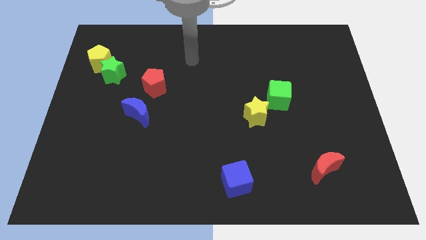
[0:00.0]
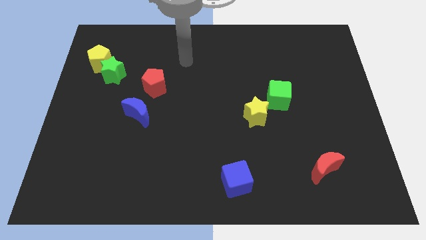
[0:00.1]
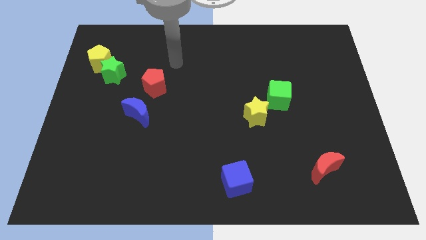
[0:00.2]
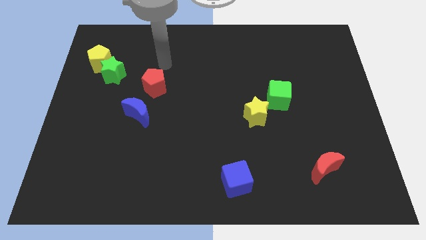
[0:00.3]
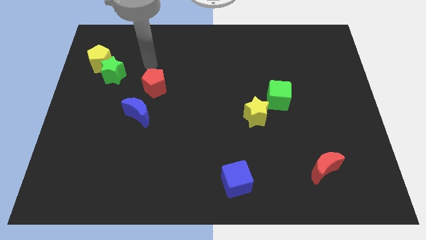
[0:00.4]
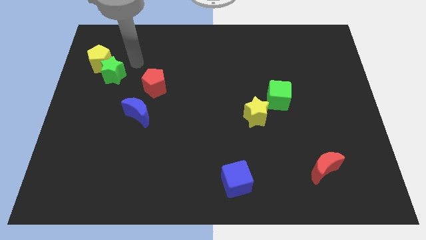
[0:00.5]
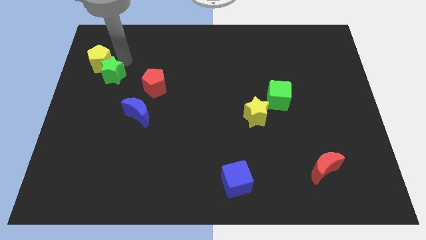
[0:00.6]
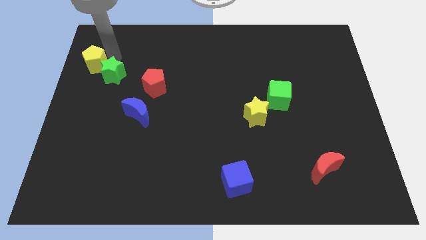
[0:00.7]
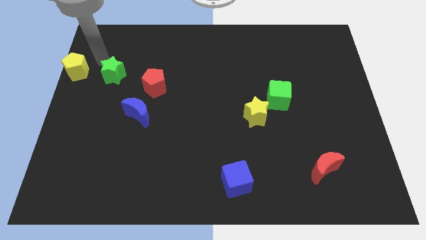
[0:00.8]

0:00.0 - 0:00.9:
pull the green star apart from the yellow pentagon

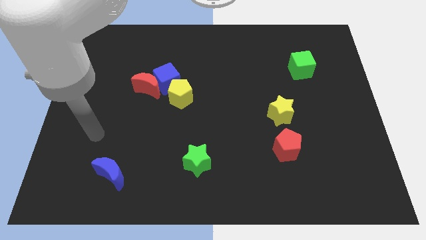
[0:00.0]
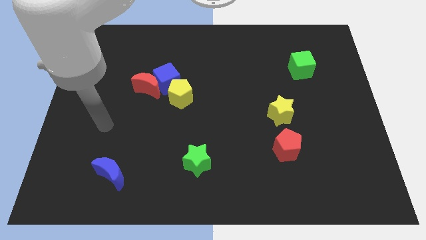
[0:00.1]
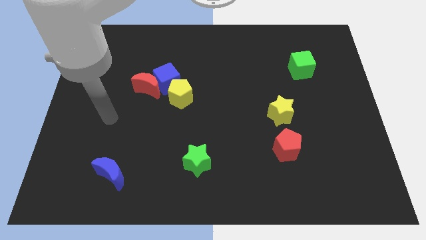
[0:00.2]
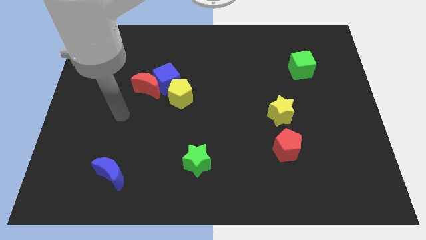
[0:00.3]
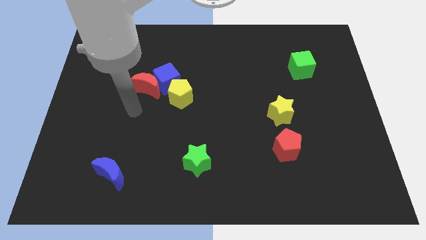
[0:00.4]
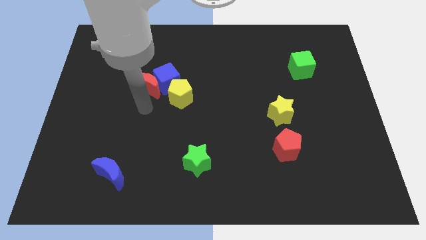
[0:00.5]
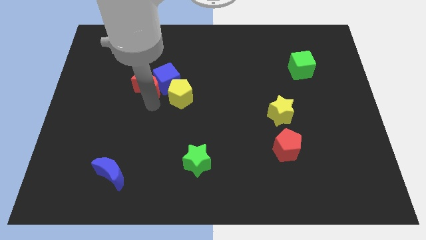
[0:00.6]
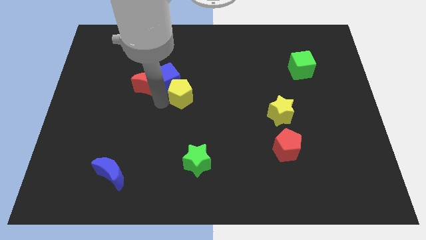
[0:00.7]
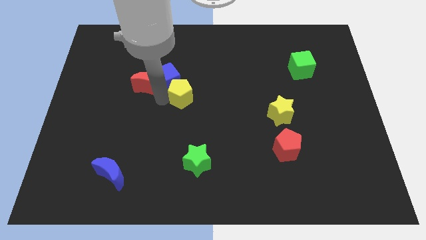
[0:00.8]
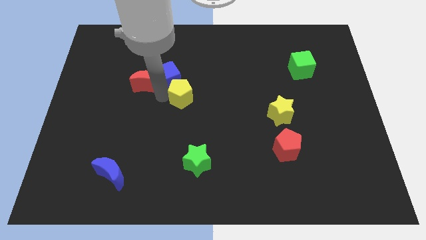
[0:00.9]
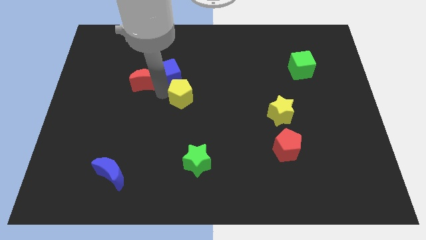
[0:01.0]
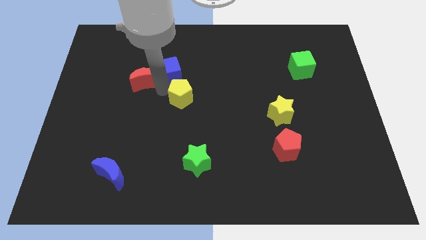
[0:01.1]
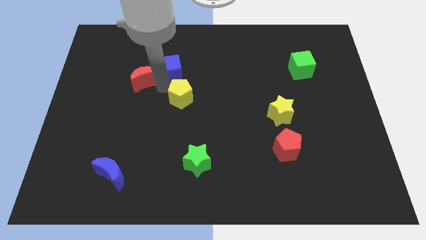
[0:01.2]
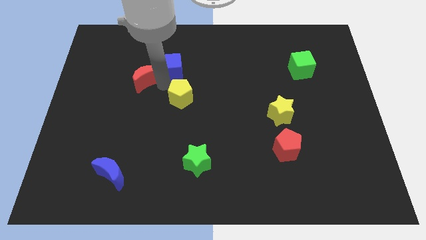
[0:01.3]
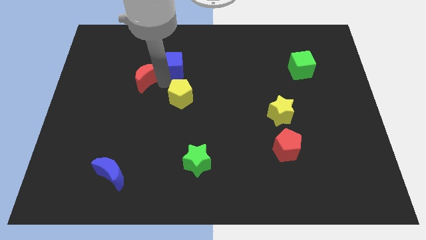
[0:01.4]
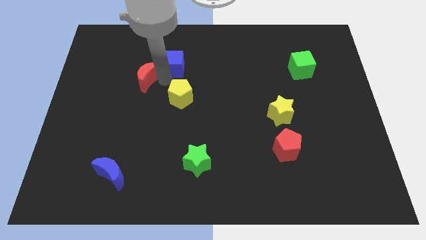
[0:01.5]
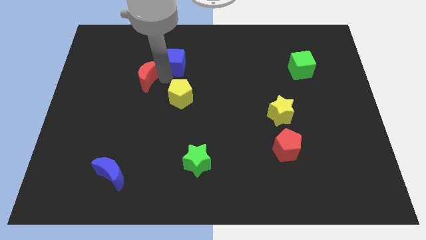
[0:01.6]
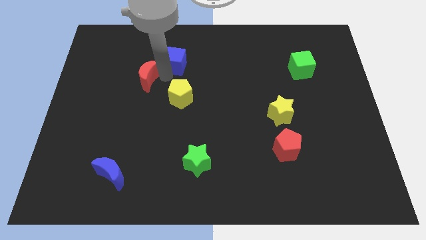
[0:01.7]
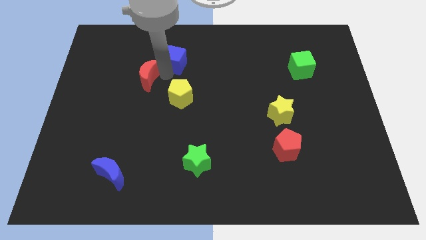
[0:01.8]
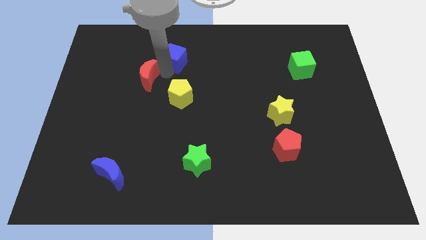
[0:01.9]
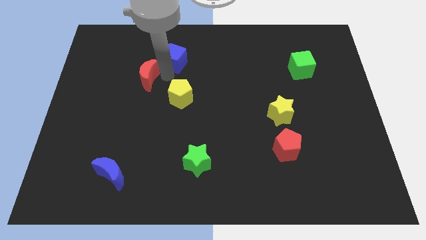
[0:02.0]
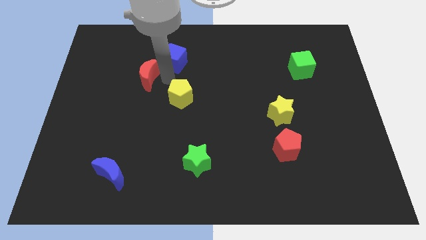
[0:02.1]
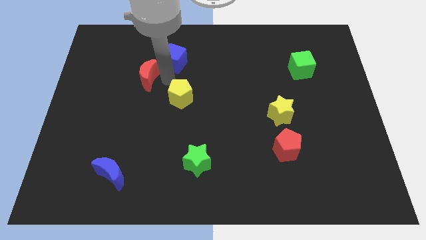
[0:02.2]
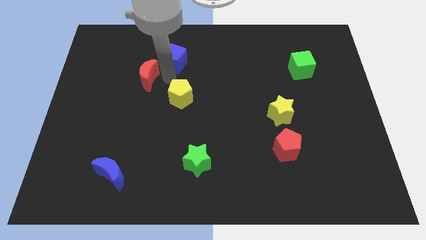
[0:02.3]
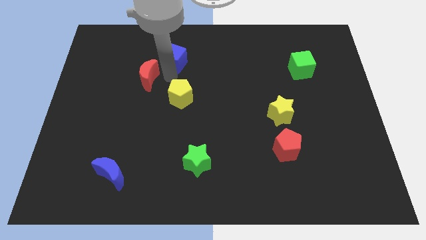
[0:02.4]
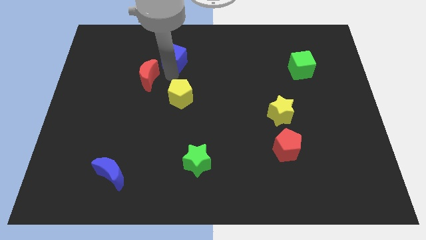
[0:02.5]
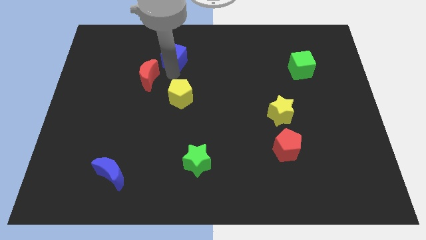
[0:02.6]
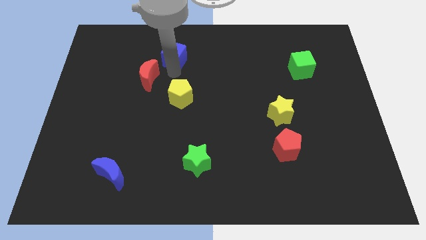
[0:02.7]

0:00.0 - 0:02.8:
separate the blue cube from the red moon and yellow pentagon

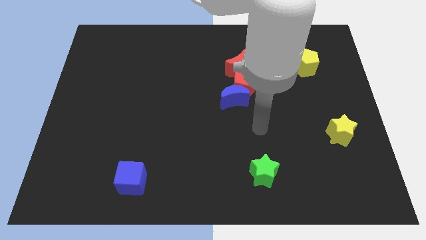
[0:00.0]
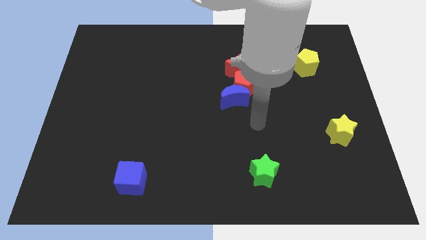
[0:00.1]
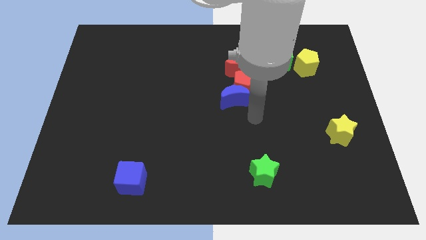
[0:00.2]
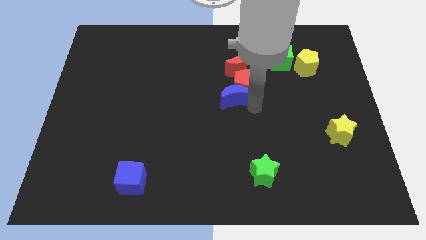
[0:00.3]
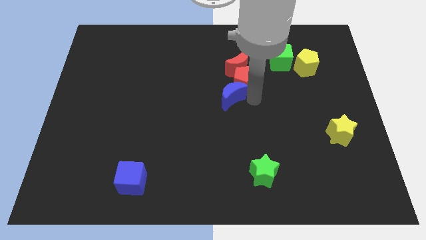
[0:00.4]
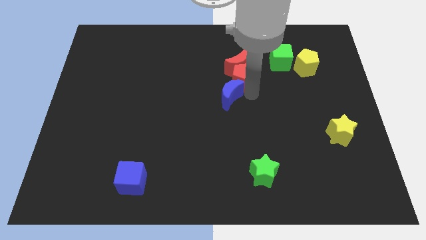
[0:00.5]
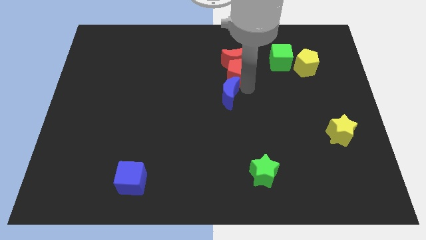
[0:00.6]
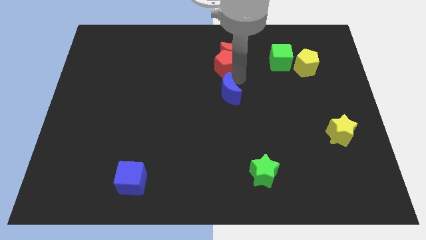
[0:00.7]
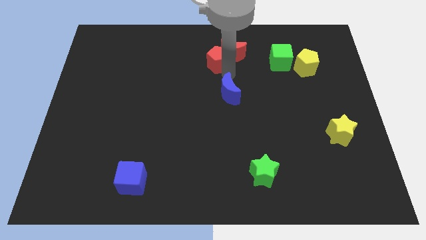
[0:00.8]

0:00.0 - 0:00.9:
separate the blue moon from the red pentagon

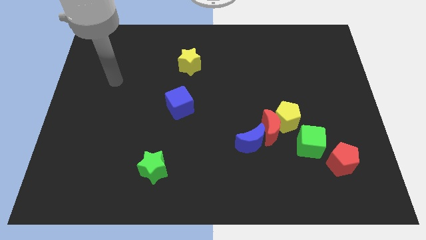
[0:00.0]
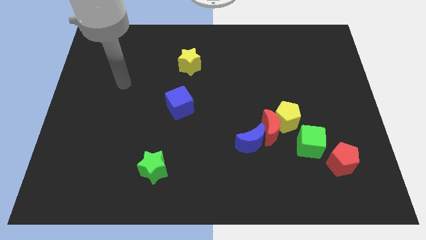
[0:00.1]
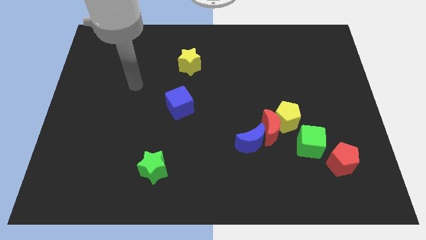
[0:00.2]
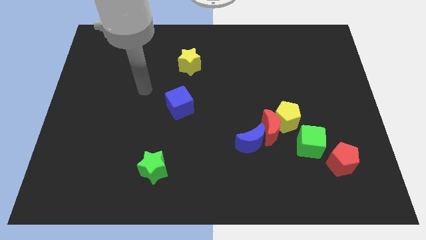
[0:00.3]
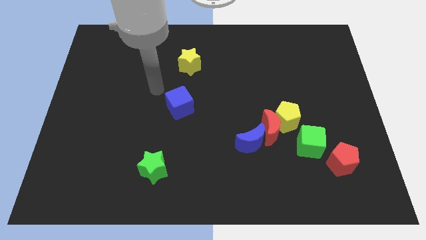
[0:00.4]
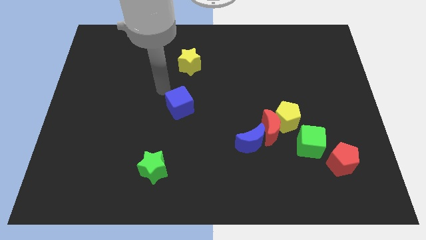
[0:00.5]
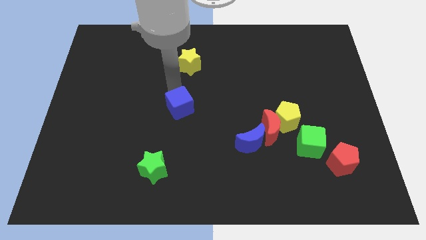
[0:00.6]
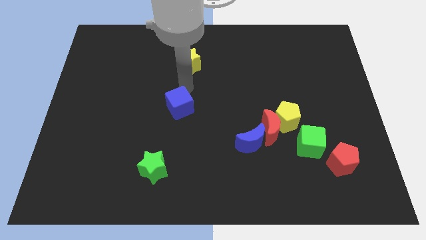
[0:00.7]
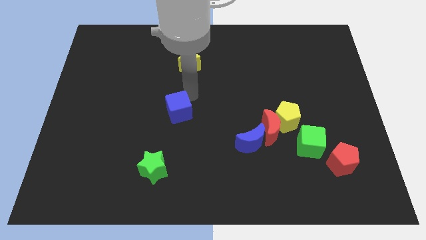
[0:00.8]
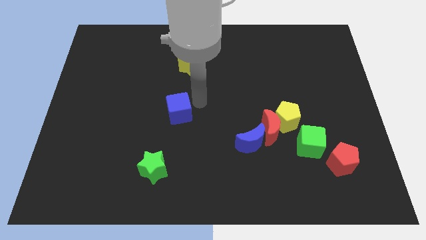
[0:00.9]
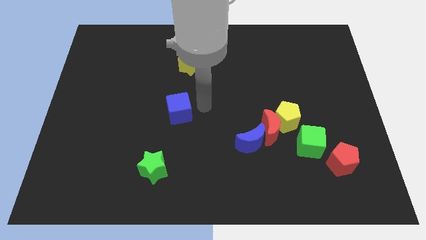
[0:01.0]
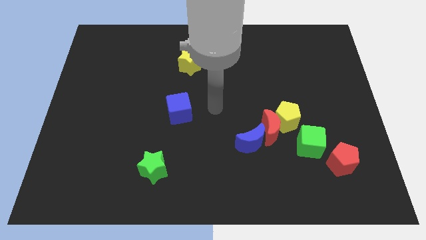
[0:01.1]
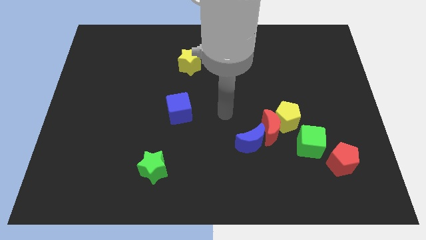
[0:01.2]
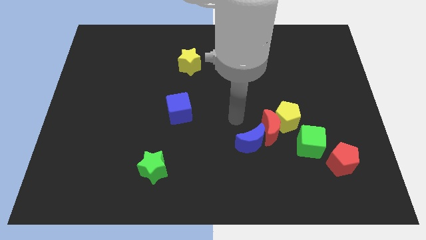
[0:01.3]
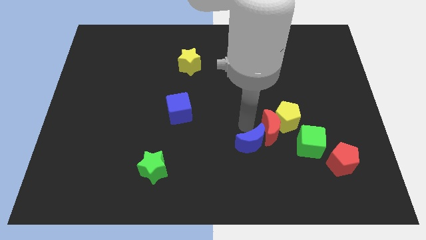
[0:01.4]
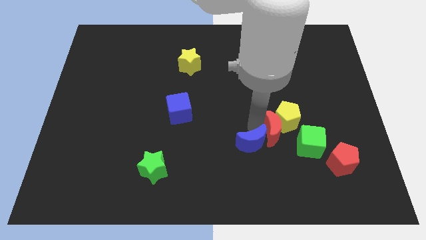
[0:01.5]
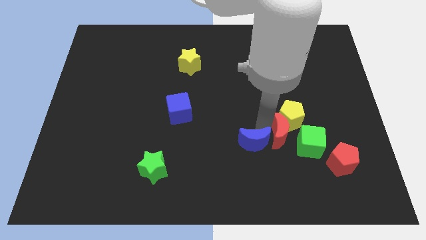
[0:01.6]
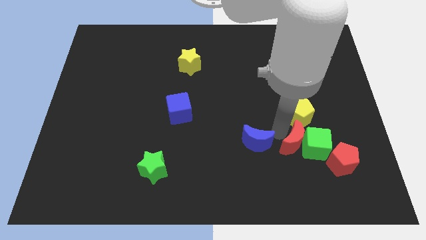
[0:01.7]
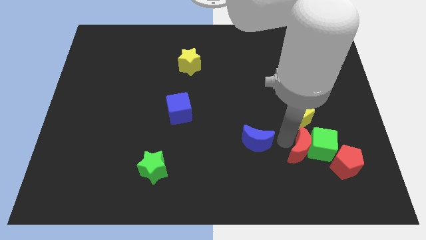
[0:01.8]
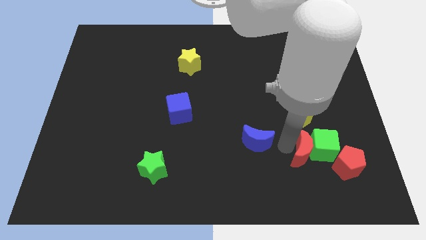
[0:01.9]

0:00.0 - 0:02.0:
separate the blue moon from the red moon

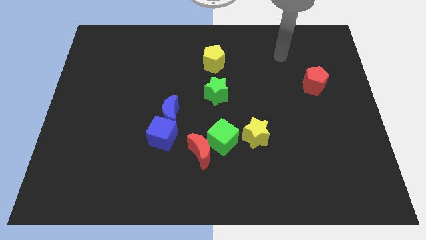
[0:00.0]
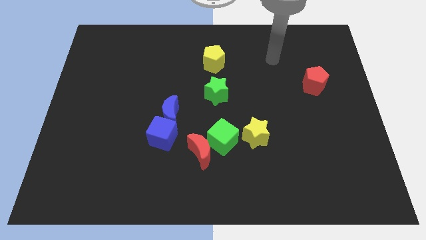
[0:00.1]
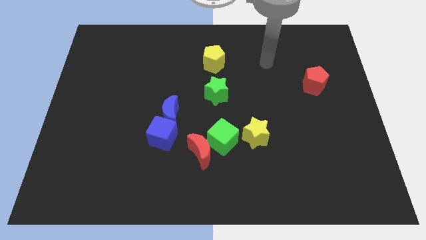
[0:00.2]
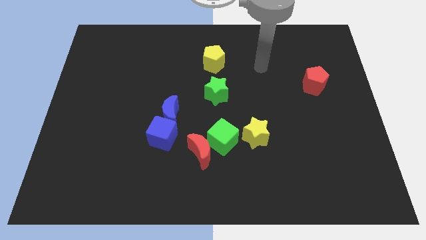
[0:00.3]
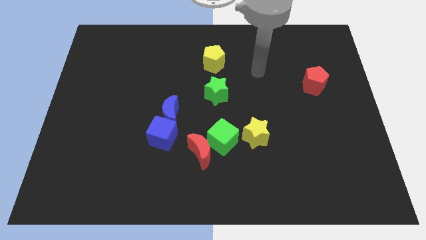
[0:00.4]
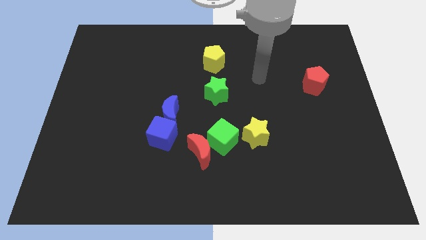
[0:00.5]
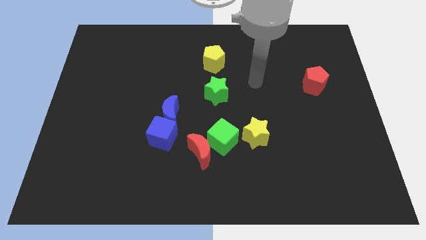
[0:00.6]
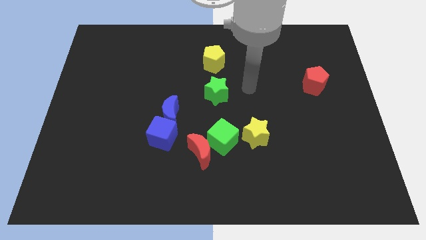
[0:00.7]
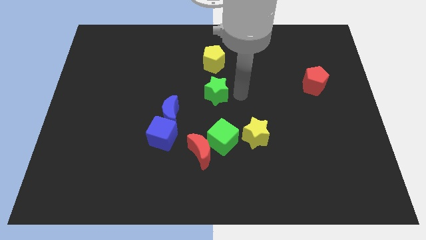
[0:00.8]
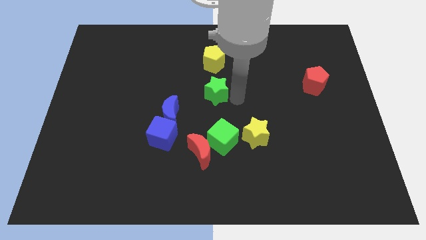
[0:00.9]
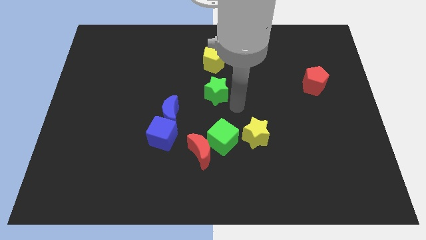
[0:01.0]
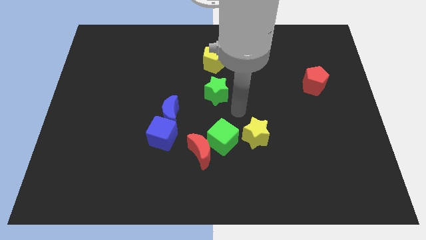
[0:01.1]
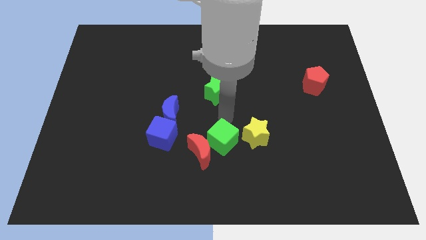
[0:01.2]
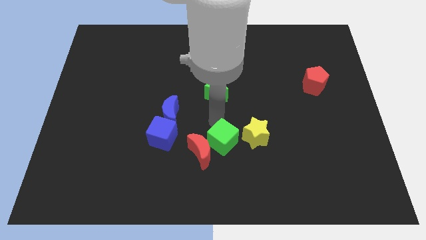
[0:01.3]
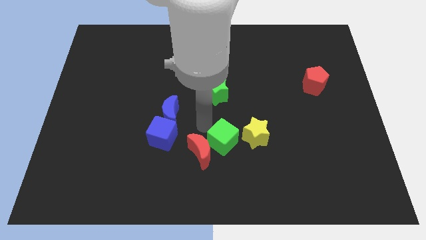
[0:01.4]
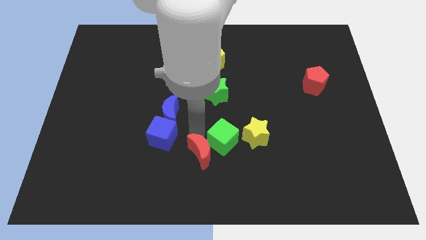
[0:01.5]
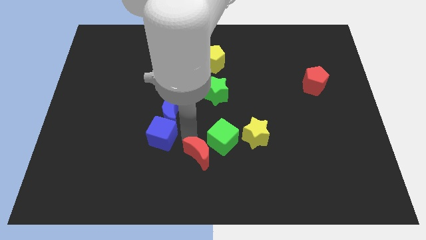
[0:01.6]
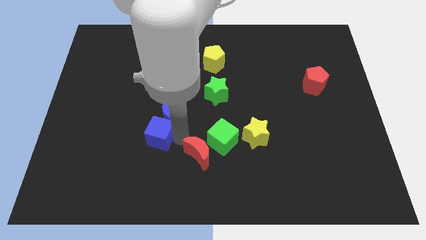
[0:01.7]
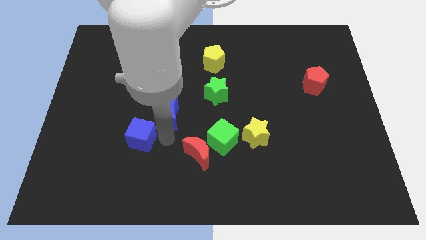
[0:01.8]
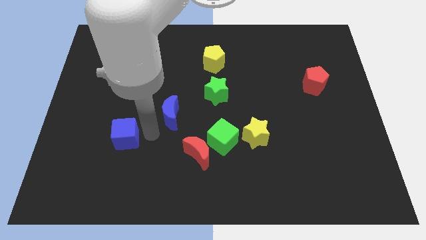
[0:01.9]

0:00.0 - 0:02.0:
move the blue moon away from the blue cube

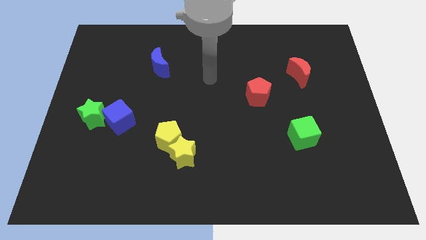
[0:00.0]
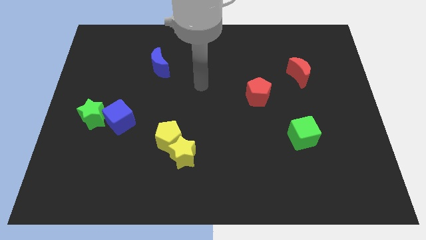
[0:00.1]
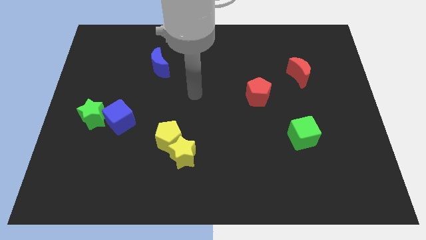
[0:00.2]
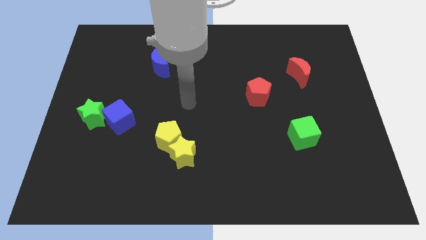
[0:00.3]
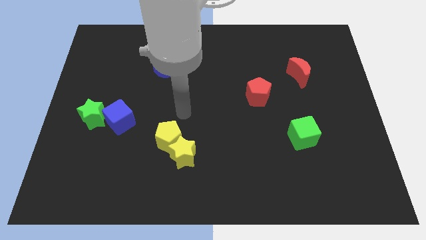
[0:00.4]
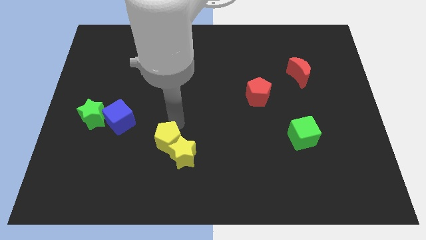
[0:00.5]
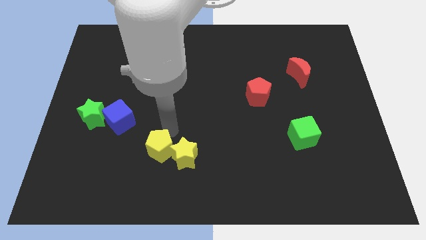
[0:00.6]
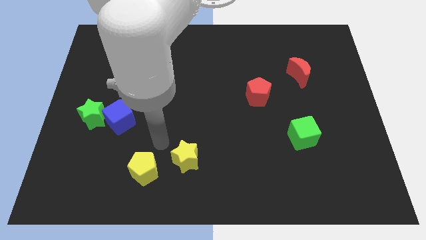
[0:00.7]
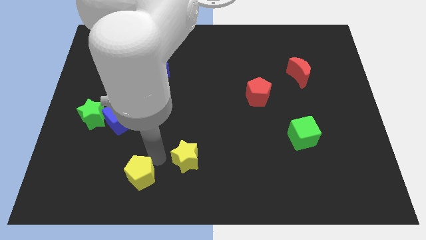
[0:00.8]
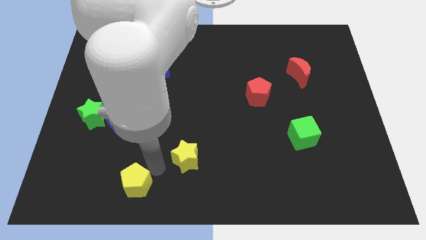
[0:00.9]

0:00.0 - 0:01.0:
separate the yellow star from the yellow pentagon
